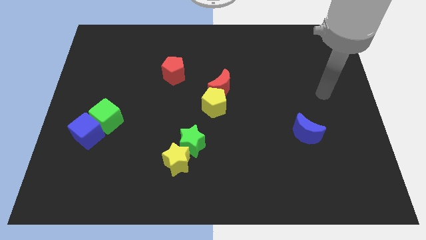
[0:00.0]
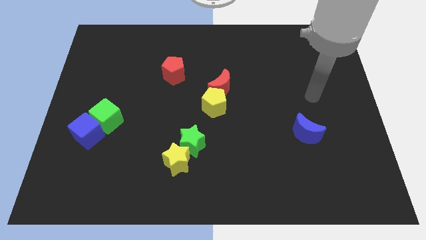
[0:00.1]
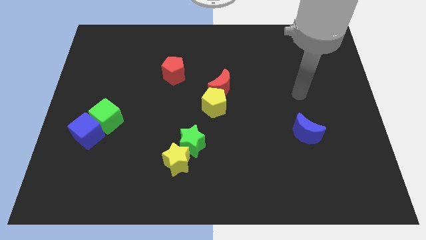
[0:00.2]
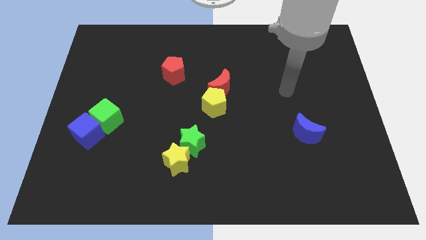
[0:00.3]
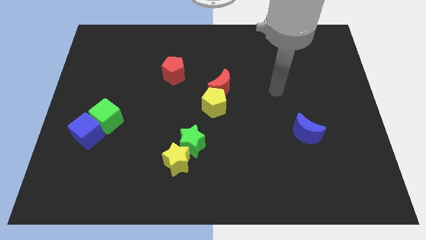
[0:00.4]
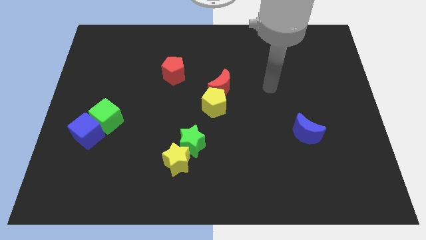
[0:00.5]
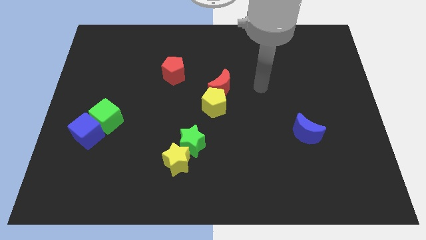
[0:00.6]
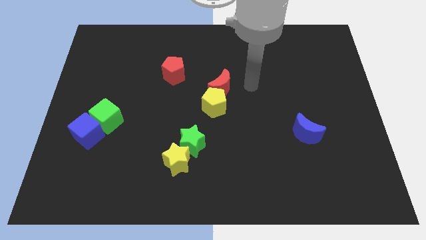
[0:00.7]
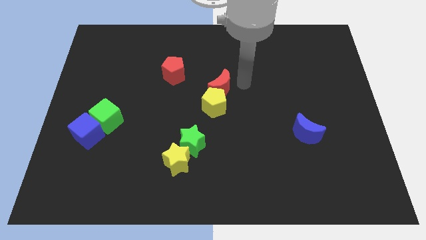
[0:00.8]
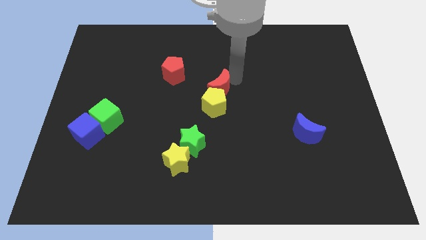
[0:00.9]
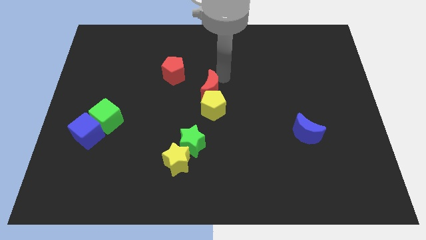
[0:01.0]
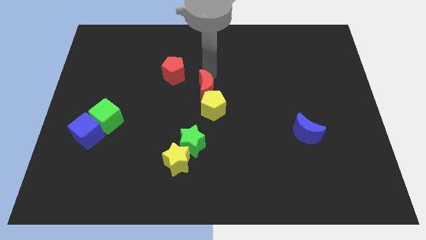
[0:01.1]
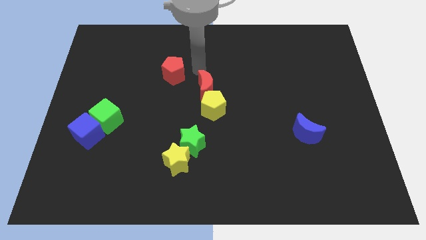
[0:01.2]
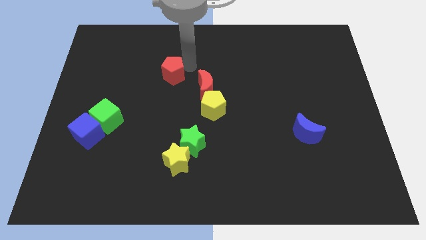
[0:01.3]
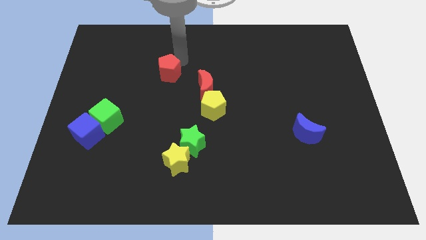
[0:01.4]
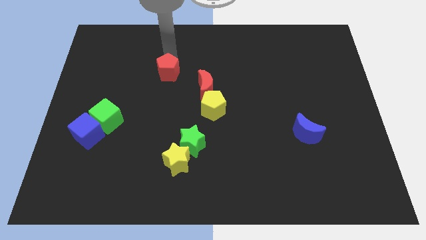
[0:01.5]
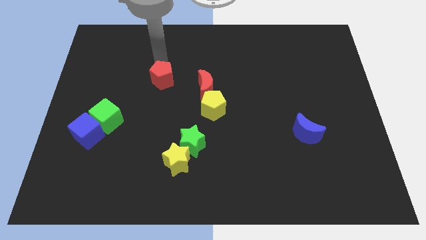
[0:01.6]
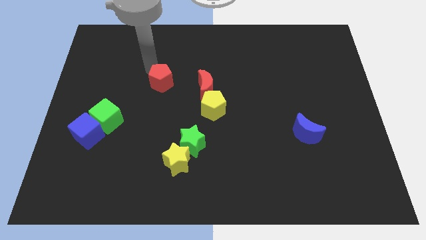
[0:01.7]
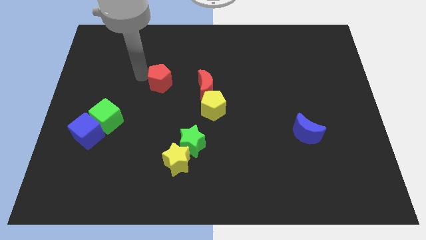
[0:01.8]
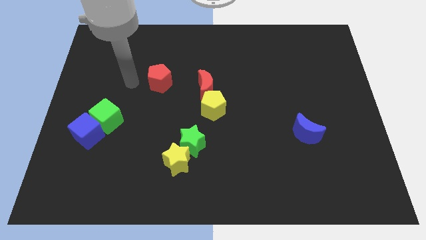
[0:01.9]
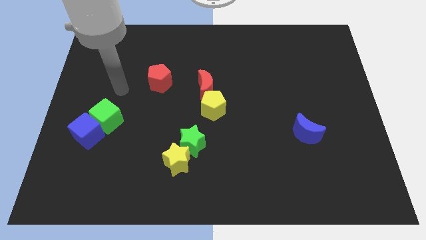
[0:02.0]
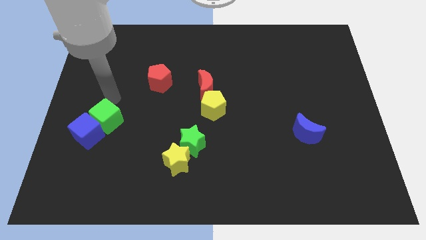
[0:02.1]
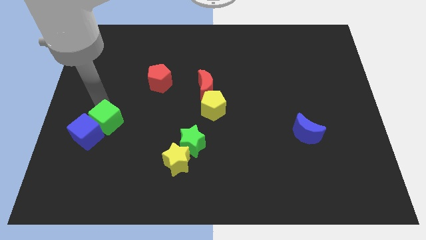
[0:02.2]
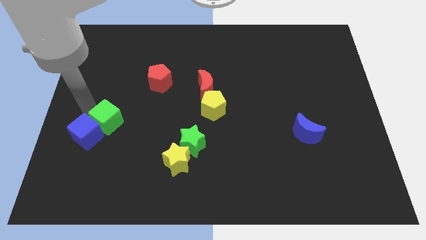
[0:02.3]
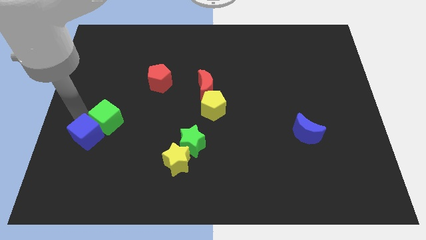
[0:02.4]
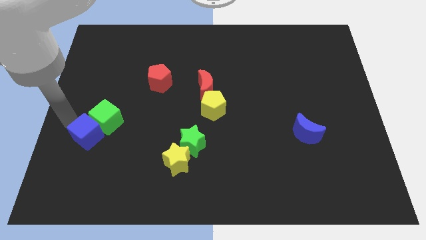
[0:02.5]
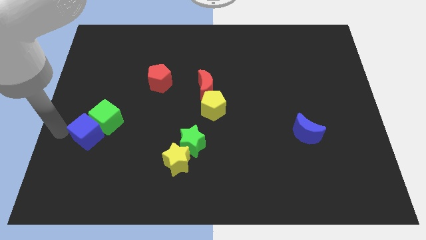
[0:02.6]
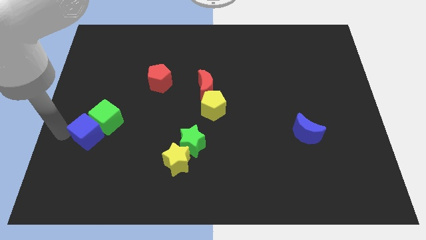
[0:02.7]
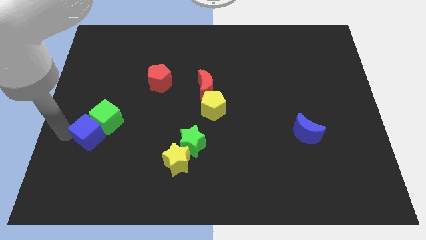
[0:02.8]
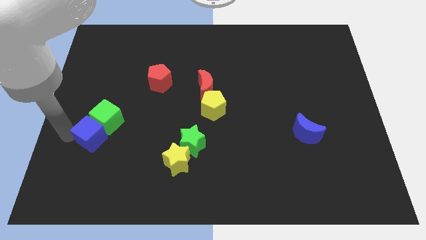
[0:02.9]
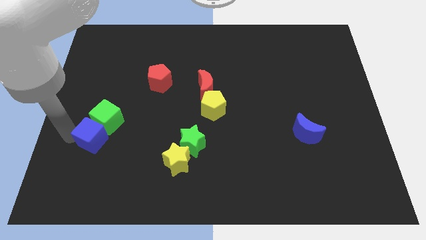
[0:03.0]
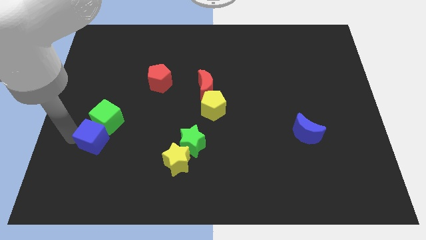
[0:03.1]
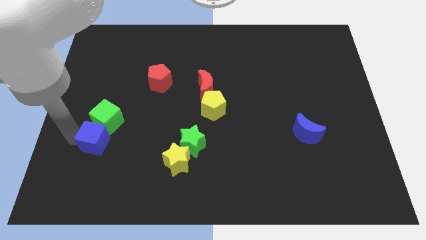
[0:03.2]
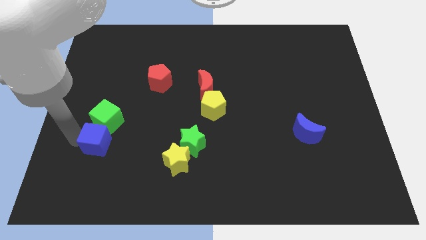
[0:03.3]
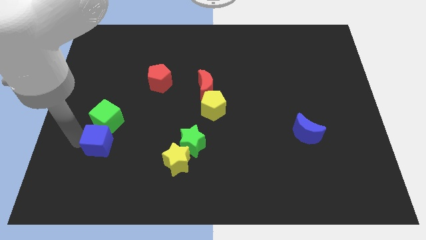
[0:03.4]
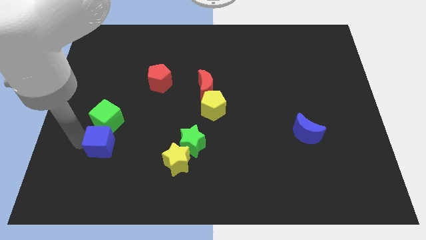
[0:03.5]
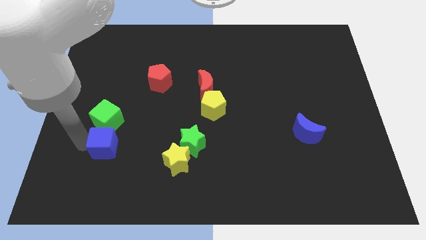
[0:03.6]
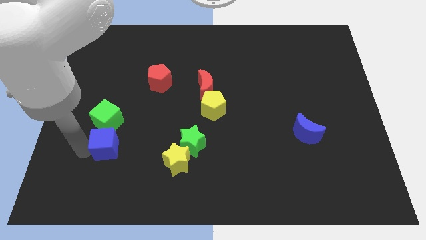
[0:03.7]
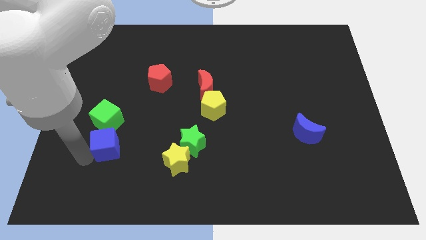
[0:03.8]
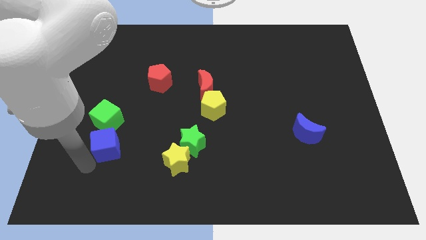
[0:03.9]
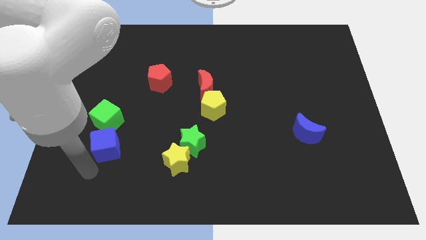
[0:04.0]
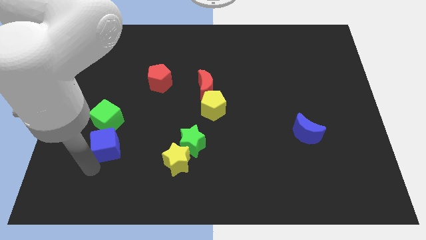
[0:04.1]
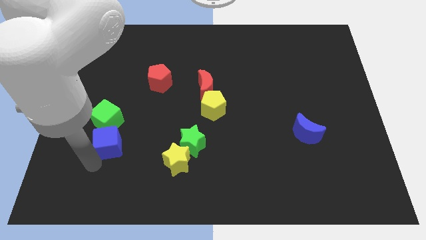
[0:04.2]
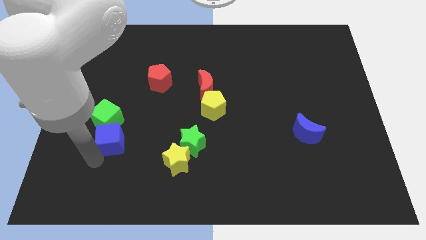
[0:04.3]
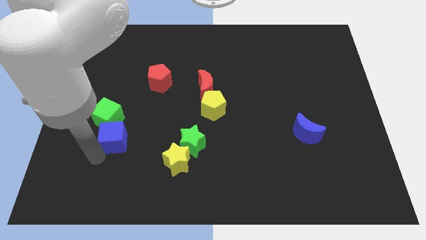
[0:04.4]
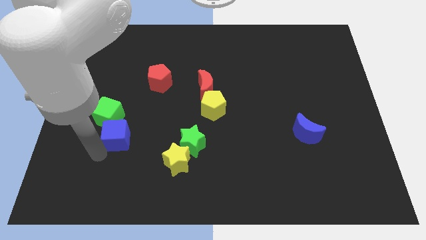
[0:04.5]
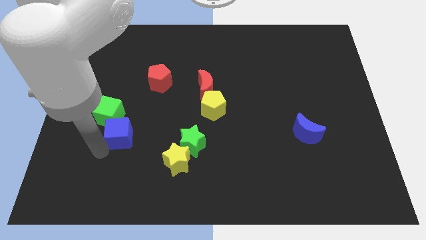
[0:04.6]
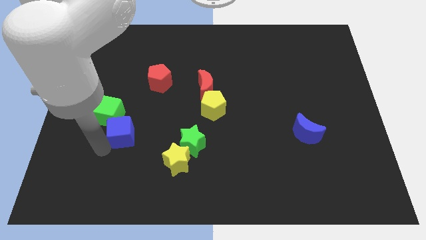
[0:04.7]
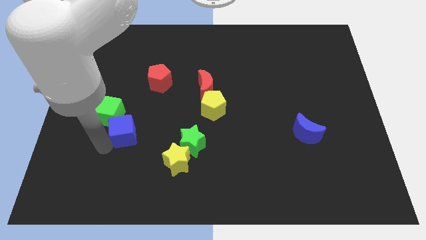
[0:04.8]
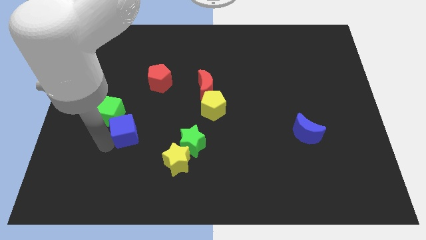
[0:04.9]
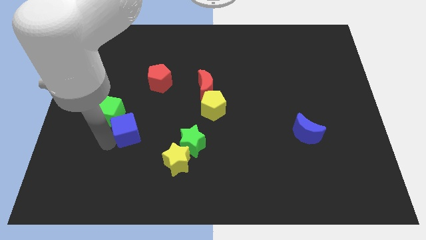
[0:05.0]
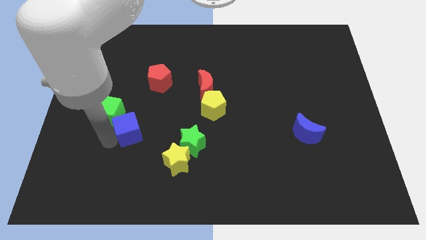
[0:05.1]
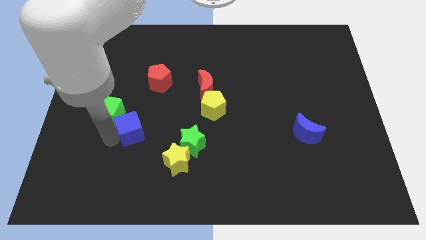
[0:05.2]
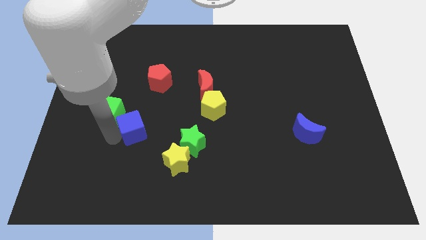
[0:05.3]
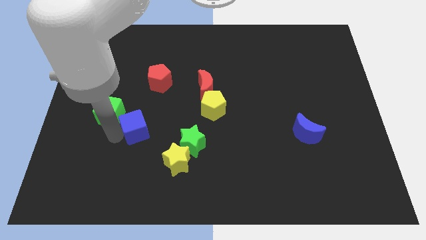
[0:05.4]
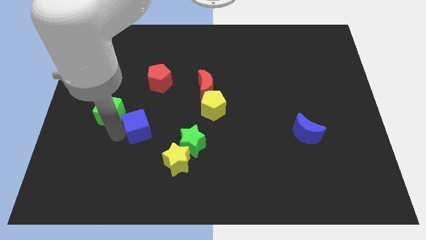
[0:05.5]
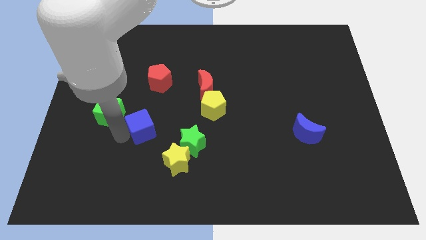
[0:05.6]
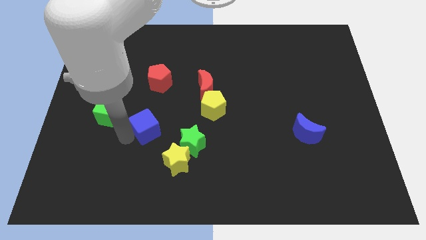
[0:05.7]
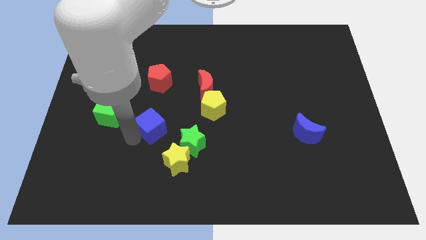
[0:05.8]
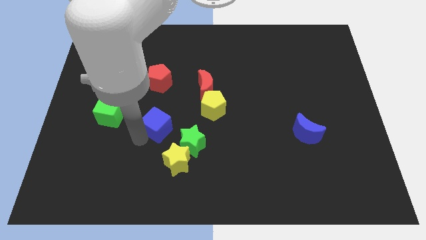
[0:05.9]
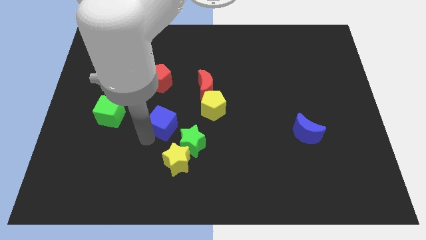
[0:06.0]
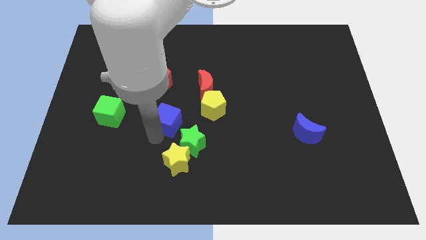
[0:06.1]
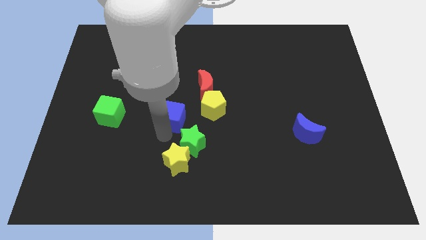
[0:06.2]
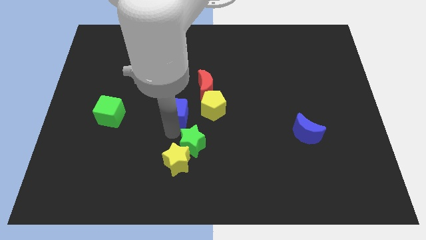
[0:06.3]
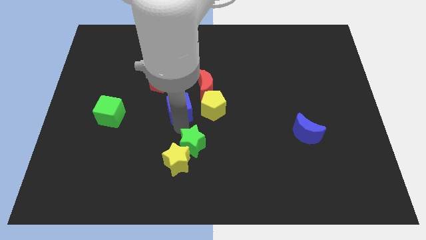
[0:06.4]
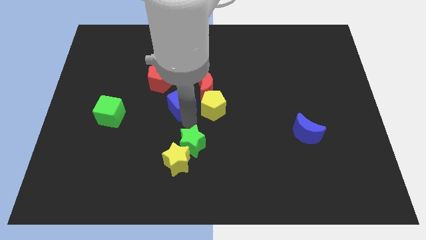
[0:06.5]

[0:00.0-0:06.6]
move the blue cube diagonally up and to the left of the yellow pentagon

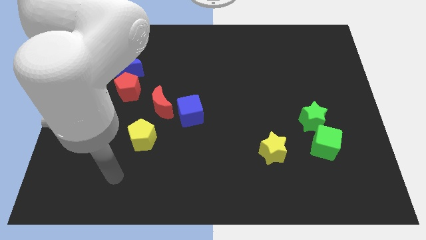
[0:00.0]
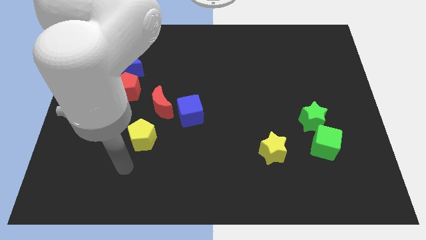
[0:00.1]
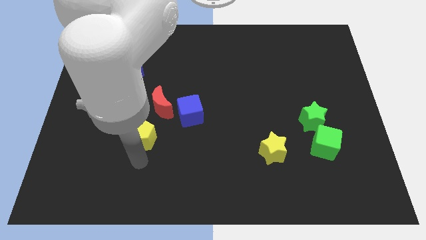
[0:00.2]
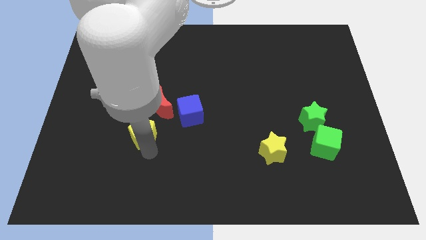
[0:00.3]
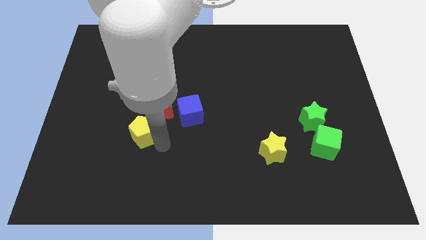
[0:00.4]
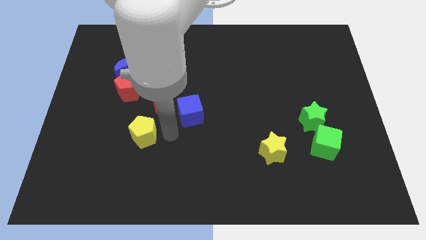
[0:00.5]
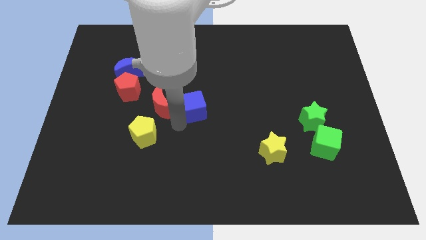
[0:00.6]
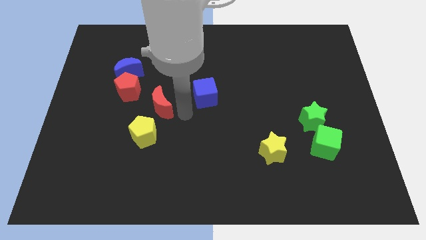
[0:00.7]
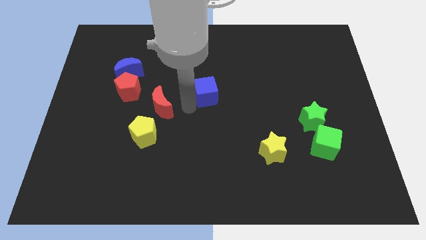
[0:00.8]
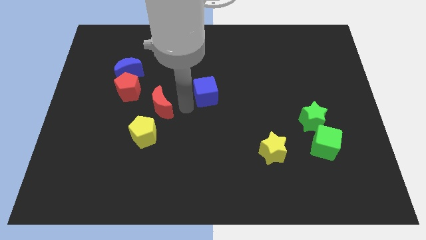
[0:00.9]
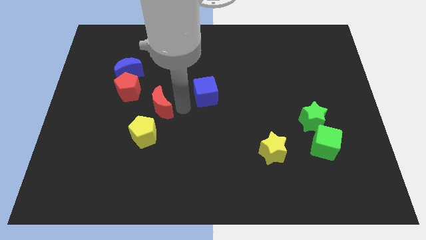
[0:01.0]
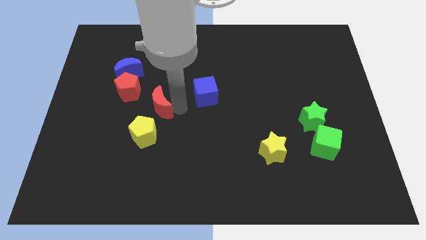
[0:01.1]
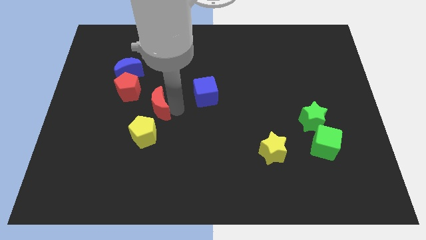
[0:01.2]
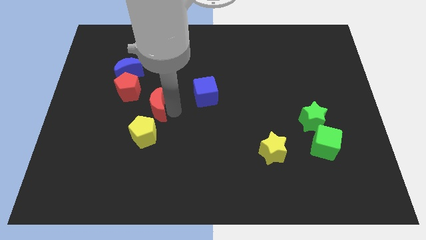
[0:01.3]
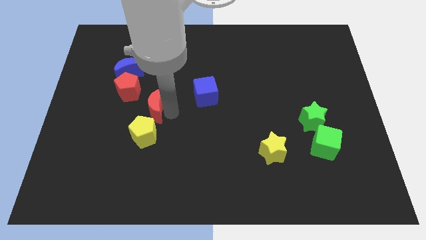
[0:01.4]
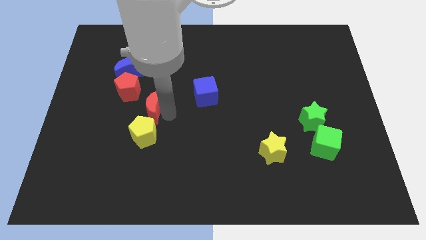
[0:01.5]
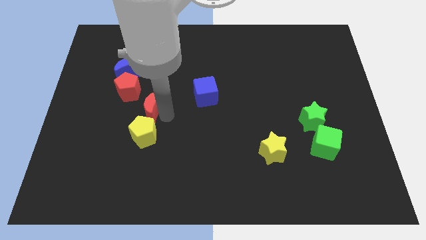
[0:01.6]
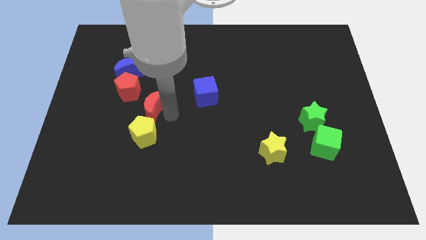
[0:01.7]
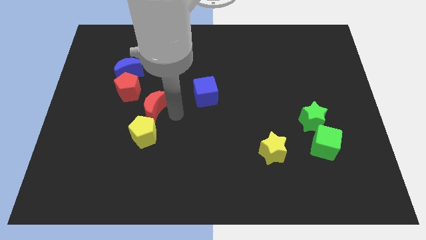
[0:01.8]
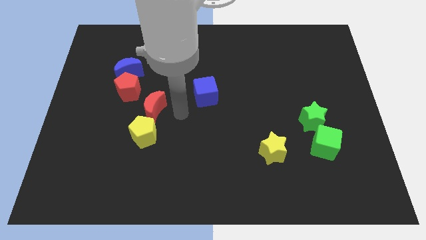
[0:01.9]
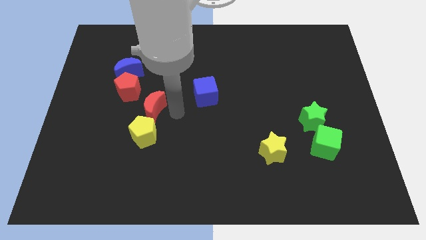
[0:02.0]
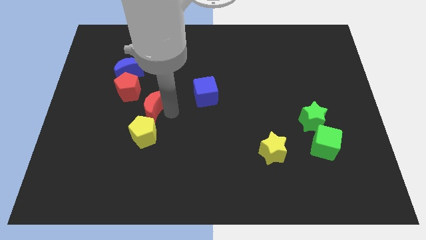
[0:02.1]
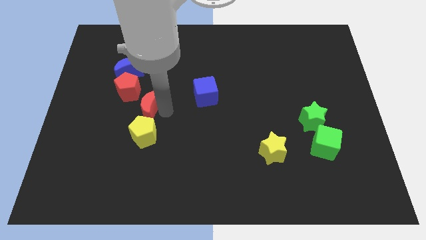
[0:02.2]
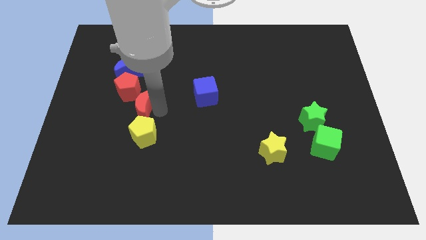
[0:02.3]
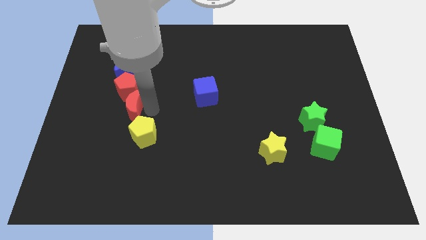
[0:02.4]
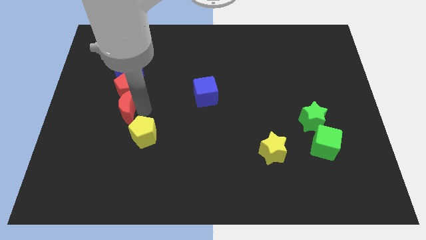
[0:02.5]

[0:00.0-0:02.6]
move the red moon to the bottom left side of the red pentagon
